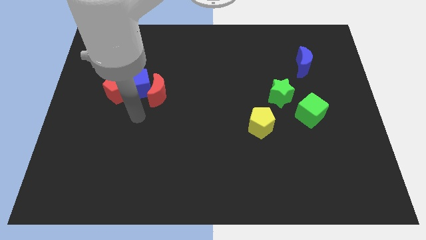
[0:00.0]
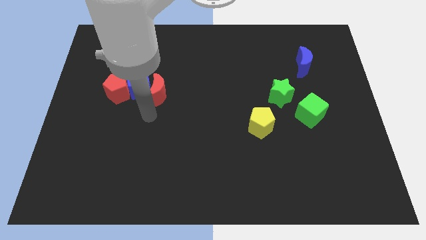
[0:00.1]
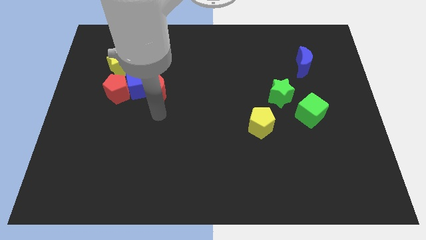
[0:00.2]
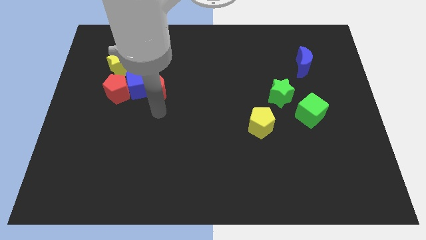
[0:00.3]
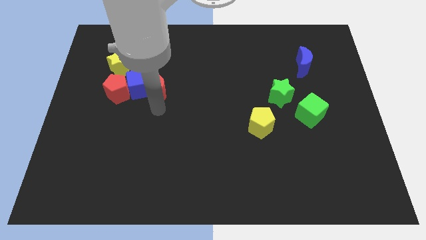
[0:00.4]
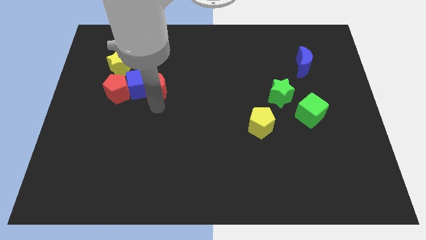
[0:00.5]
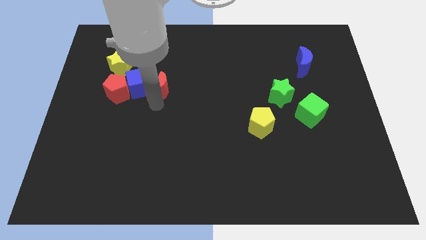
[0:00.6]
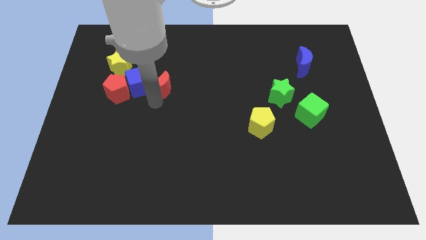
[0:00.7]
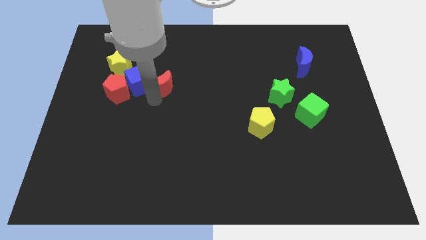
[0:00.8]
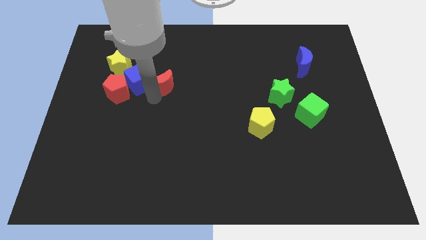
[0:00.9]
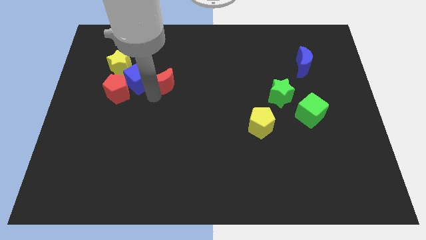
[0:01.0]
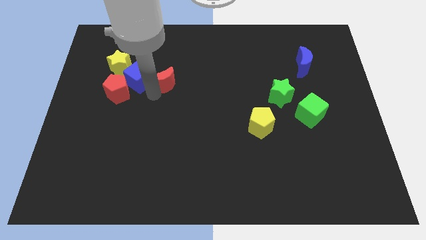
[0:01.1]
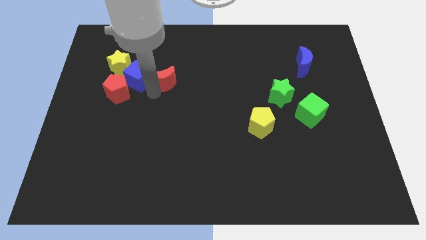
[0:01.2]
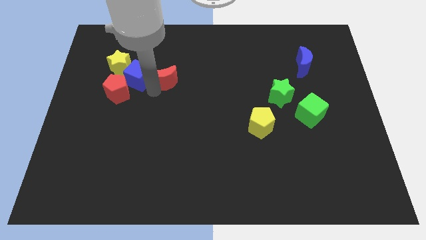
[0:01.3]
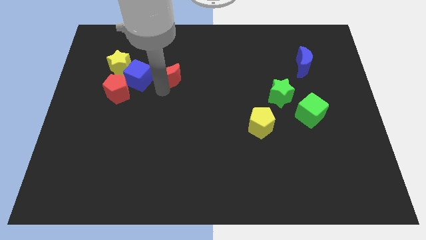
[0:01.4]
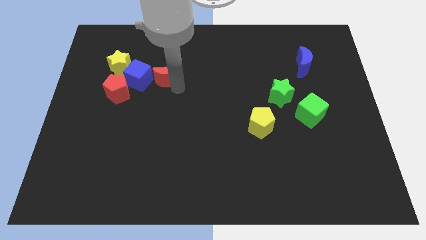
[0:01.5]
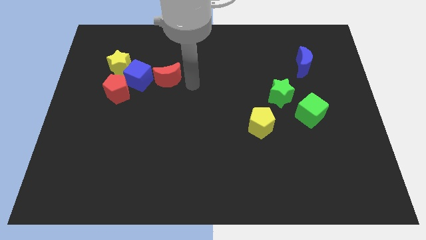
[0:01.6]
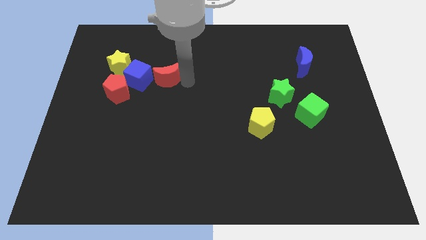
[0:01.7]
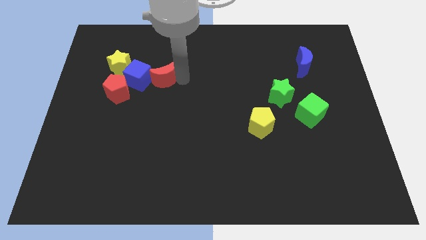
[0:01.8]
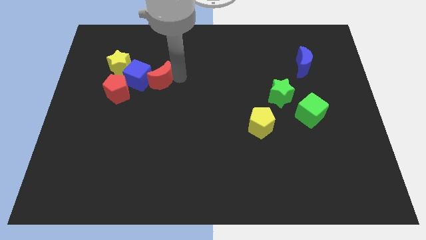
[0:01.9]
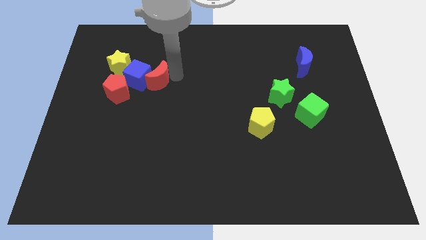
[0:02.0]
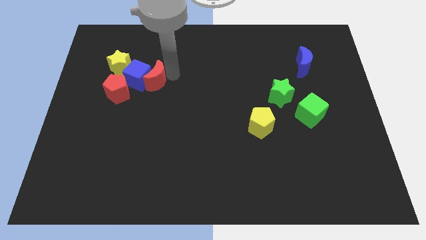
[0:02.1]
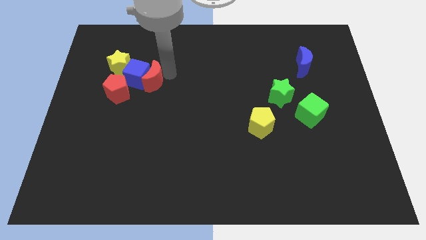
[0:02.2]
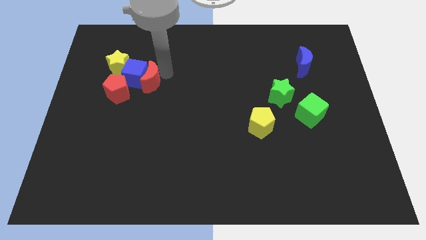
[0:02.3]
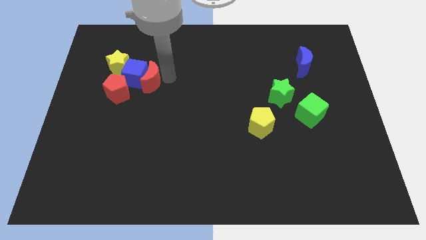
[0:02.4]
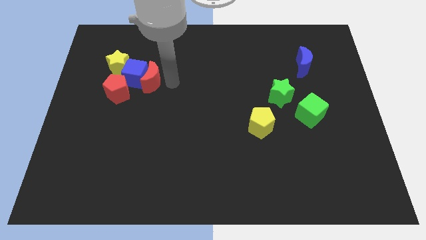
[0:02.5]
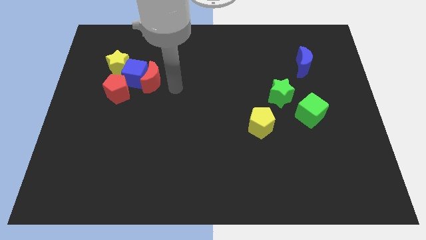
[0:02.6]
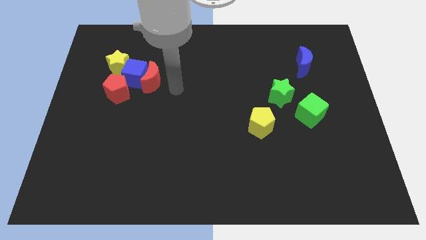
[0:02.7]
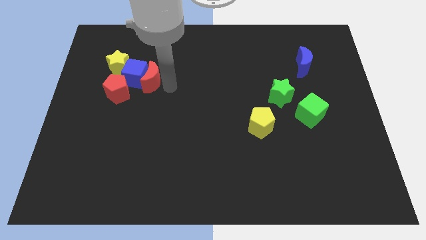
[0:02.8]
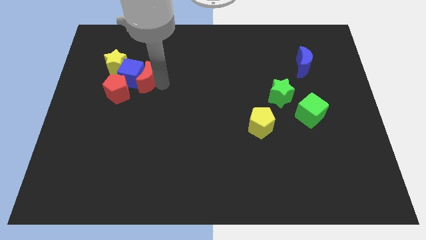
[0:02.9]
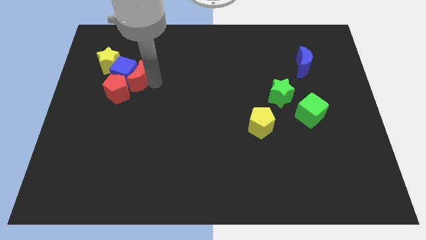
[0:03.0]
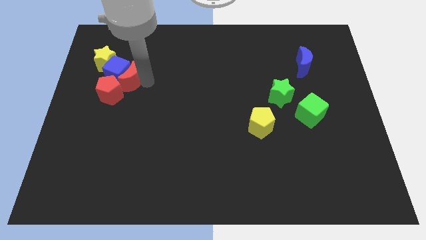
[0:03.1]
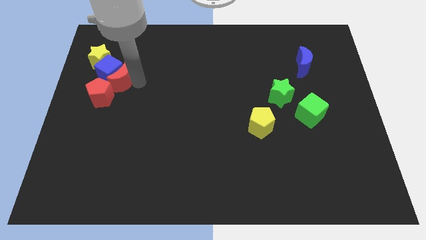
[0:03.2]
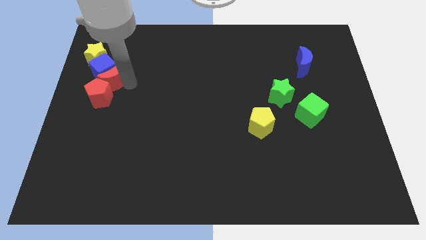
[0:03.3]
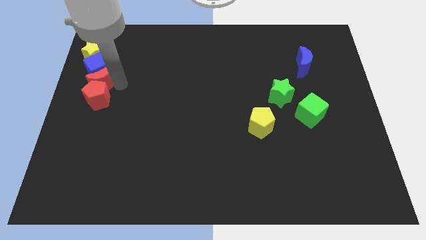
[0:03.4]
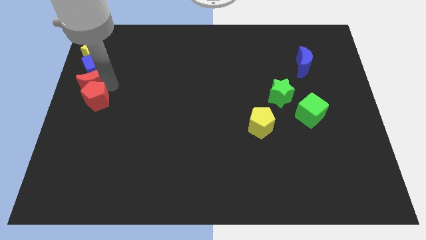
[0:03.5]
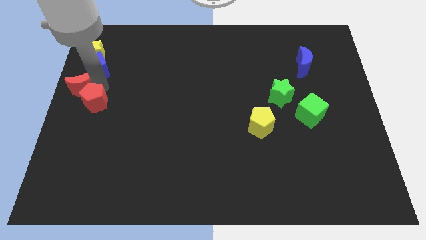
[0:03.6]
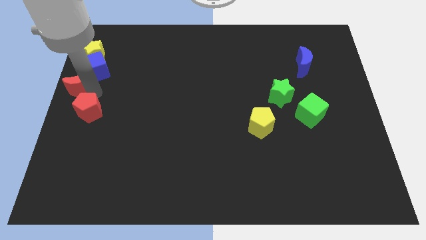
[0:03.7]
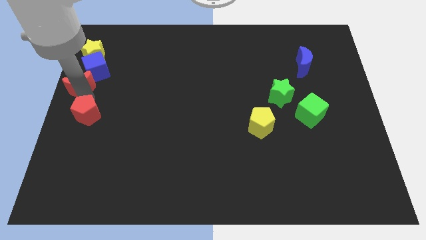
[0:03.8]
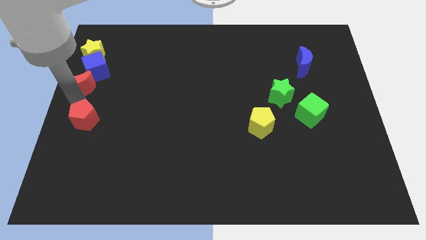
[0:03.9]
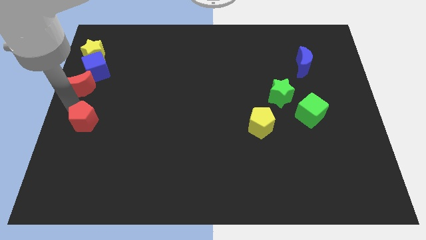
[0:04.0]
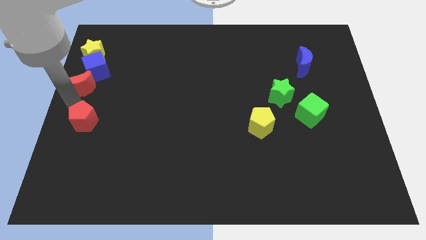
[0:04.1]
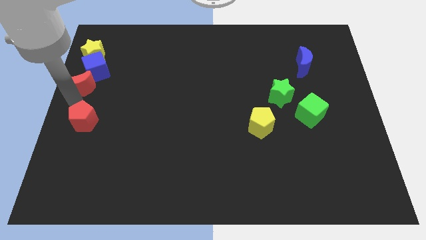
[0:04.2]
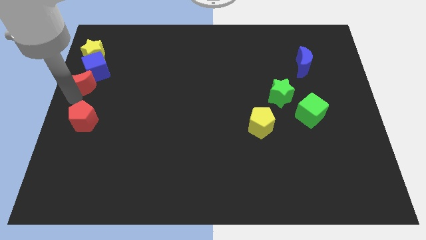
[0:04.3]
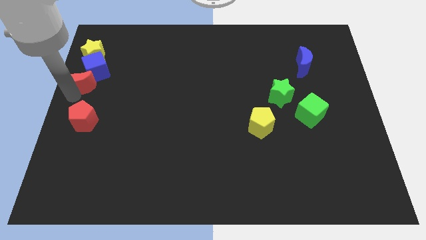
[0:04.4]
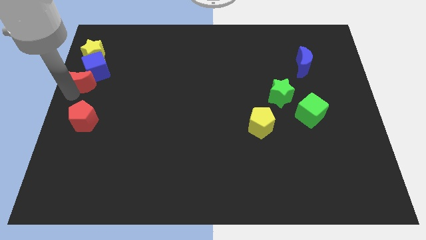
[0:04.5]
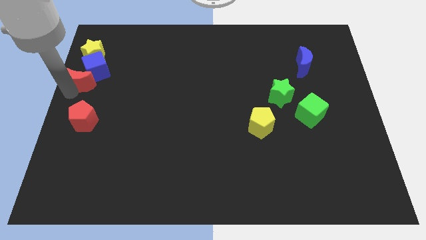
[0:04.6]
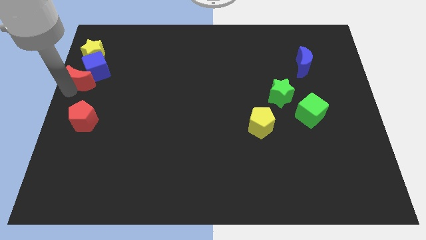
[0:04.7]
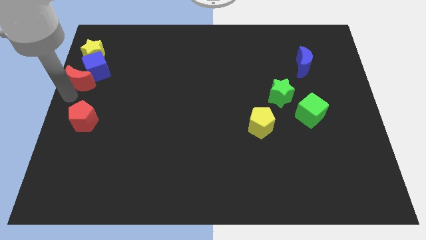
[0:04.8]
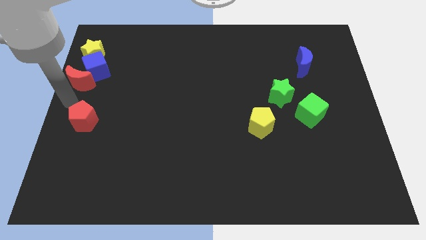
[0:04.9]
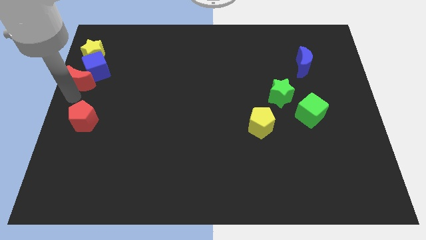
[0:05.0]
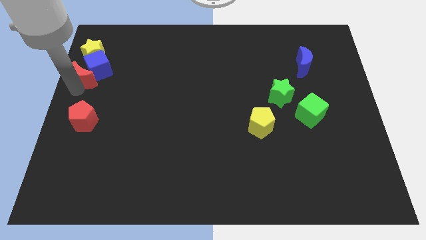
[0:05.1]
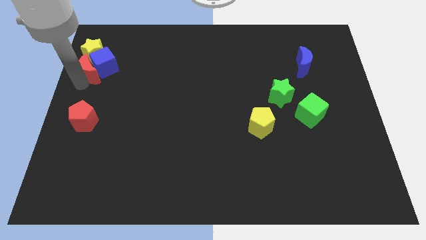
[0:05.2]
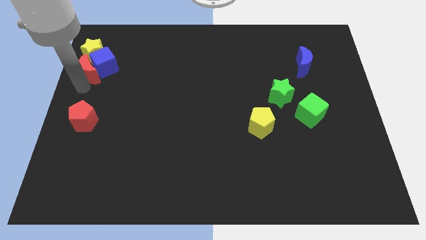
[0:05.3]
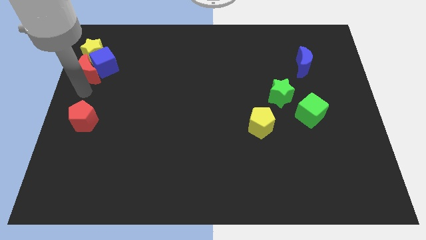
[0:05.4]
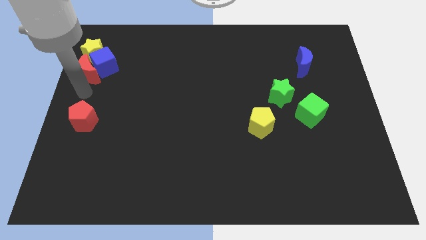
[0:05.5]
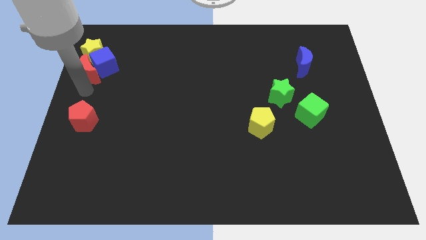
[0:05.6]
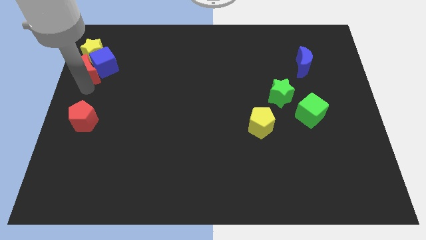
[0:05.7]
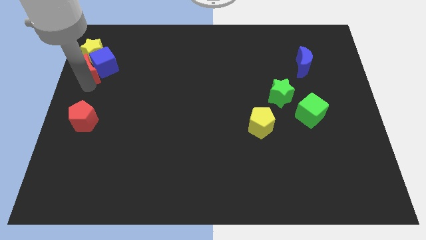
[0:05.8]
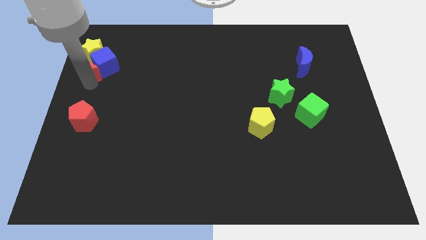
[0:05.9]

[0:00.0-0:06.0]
put the red moon next to the yellow star

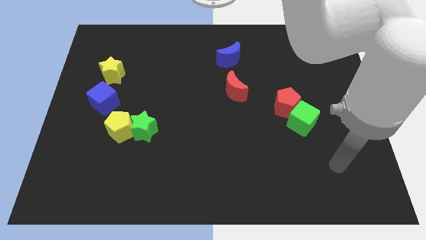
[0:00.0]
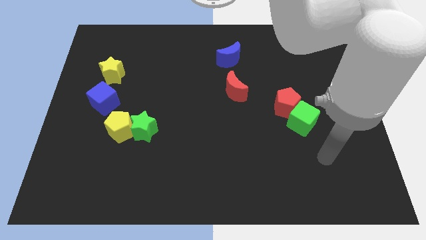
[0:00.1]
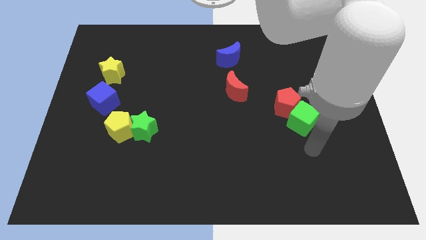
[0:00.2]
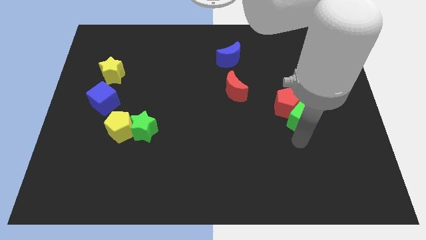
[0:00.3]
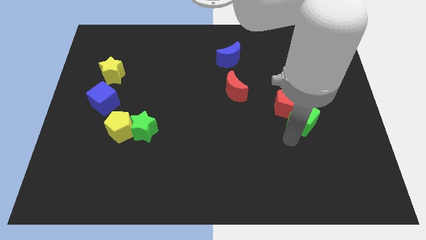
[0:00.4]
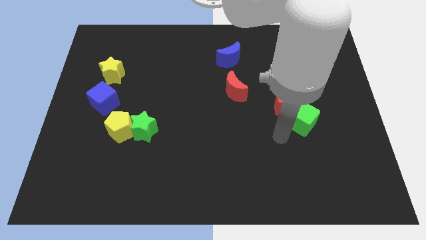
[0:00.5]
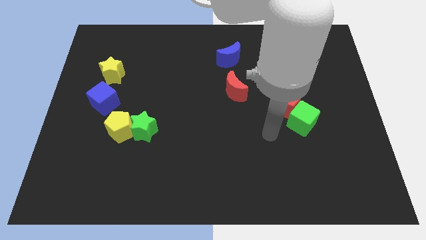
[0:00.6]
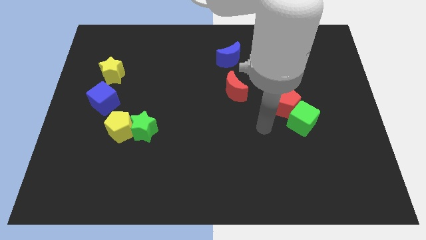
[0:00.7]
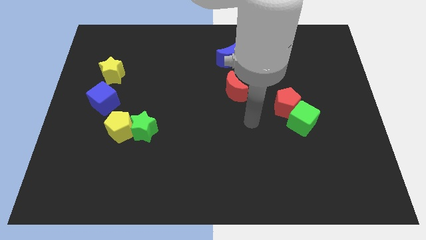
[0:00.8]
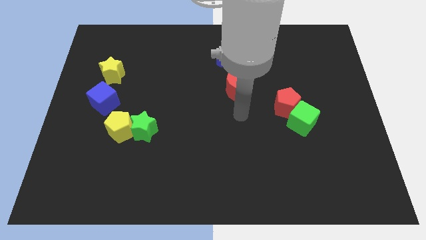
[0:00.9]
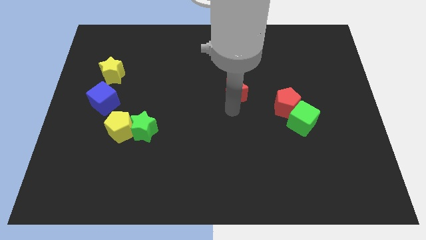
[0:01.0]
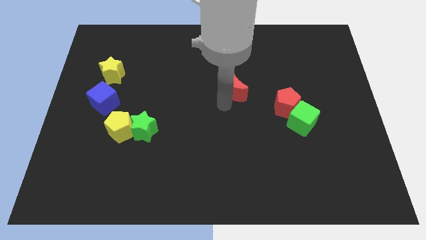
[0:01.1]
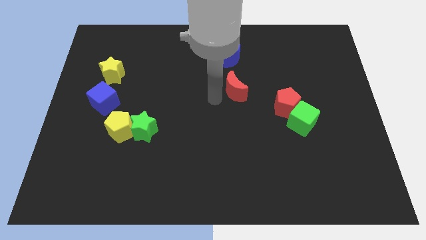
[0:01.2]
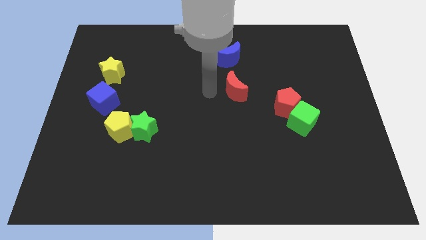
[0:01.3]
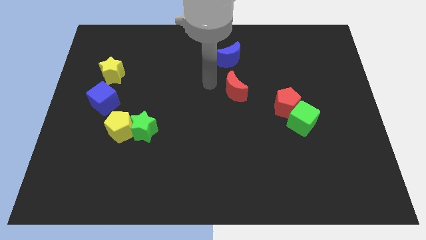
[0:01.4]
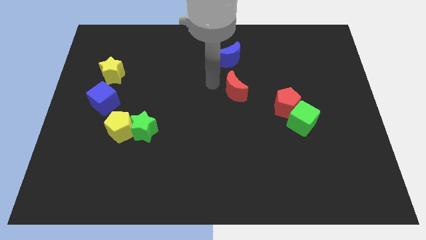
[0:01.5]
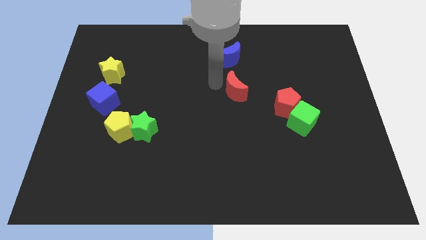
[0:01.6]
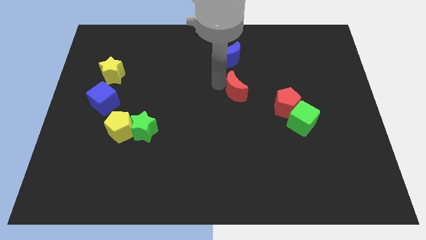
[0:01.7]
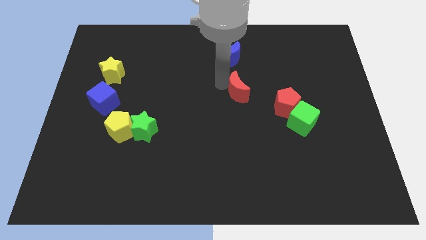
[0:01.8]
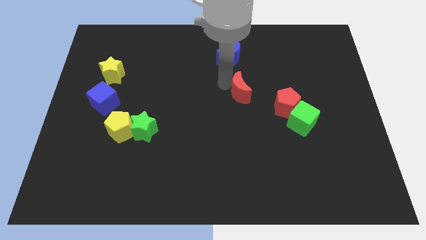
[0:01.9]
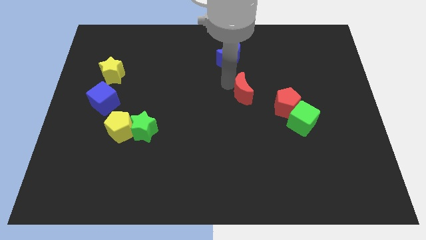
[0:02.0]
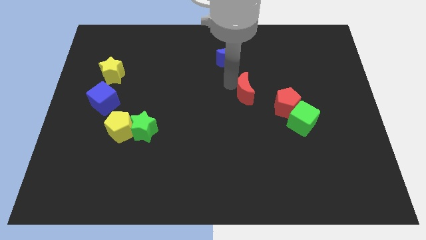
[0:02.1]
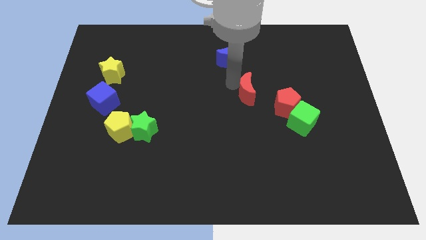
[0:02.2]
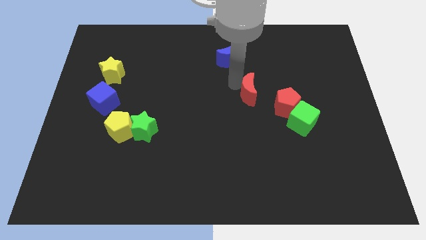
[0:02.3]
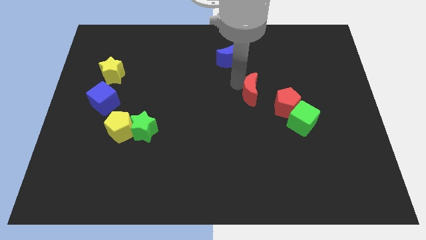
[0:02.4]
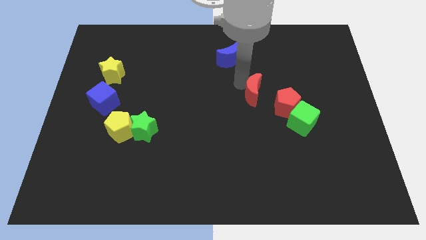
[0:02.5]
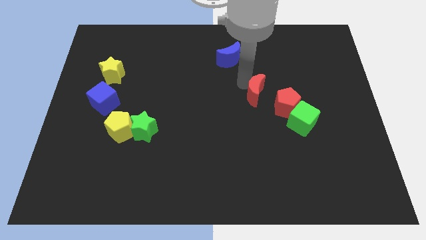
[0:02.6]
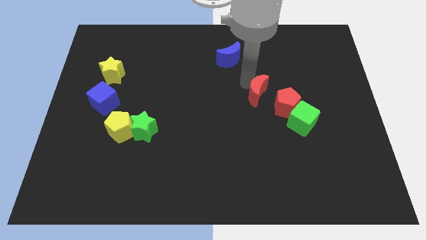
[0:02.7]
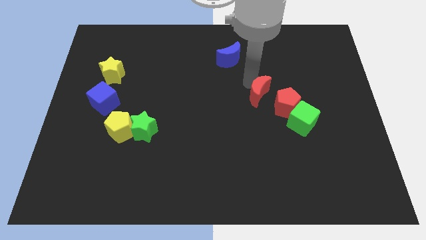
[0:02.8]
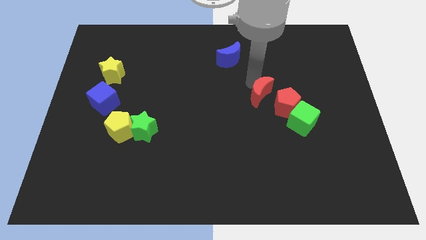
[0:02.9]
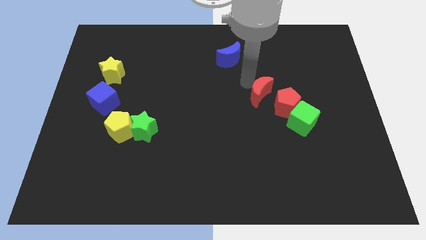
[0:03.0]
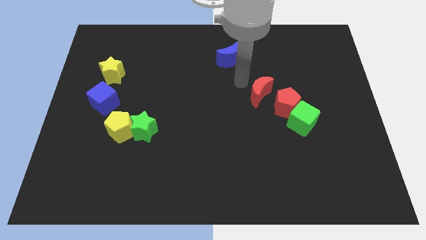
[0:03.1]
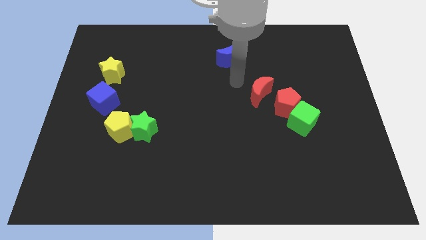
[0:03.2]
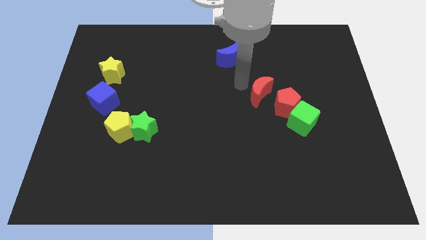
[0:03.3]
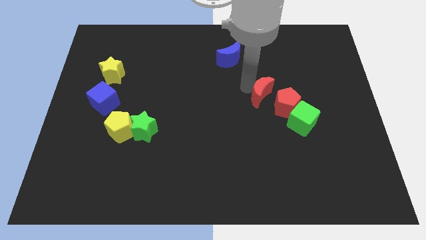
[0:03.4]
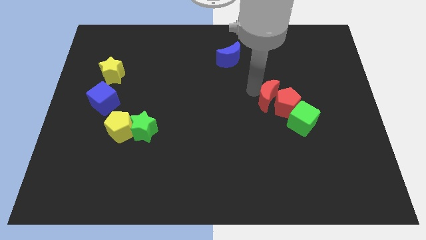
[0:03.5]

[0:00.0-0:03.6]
push the red moon next to the red pentagon
